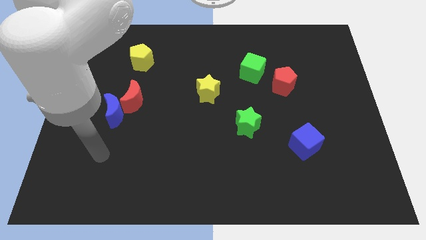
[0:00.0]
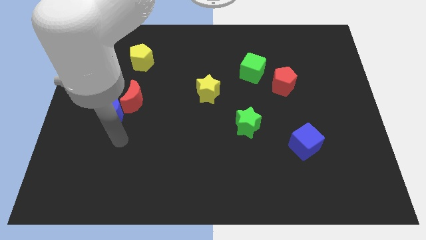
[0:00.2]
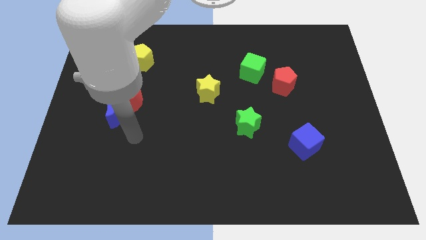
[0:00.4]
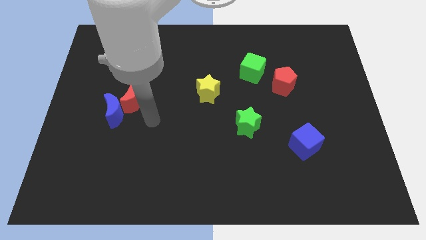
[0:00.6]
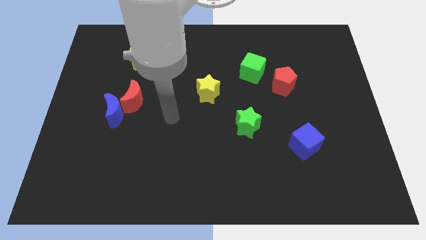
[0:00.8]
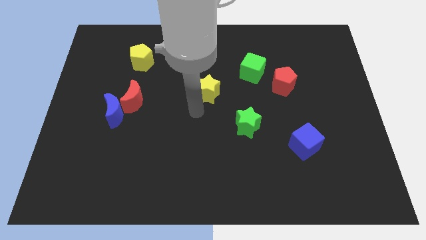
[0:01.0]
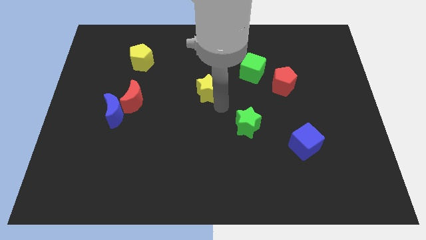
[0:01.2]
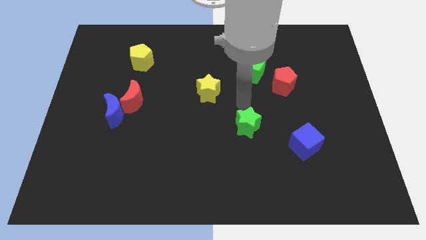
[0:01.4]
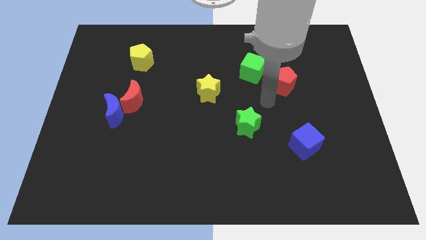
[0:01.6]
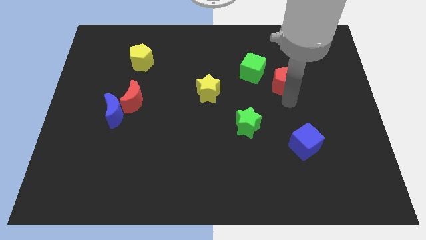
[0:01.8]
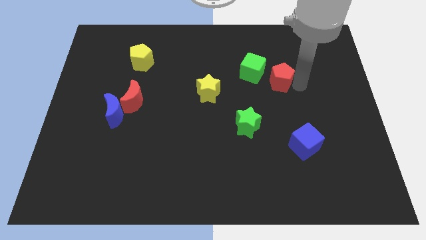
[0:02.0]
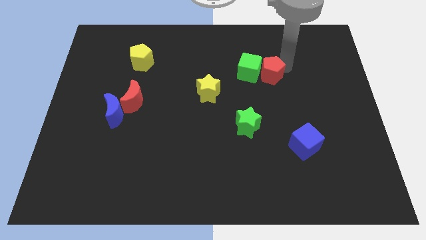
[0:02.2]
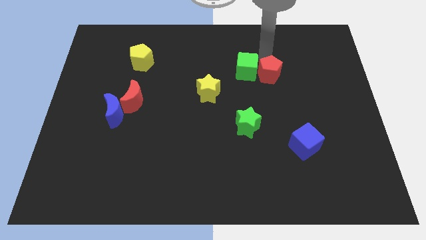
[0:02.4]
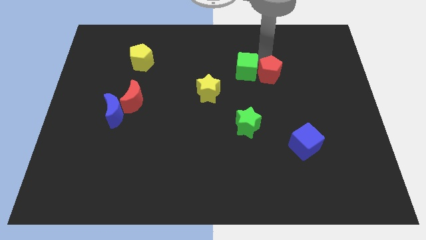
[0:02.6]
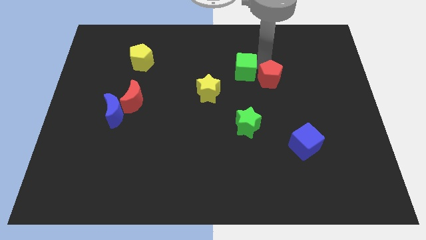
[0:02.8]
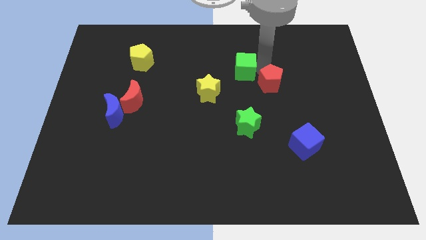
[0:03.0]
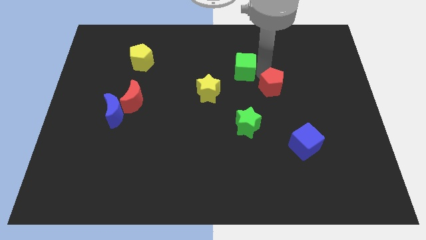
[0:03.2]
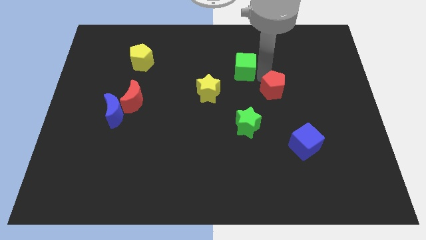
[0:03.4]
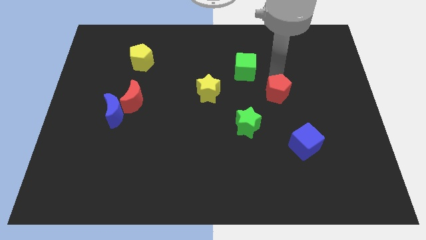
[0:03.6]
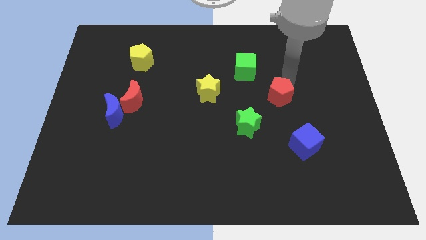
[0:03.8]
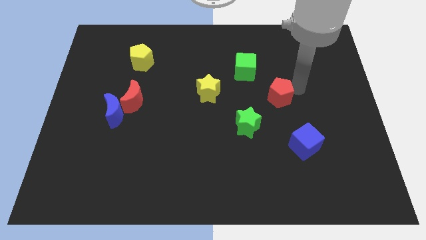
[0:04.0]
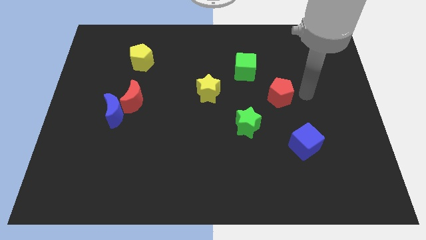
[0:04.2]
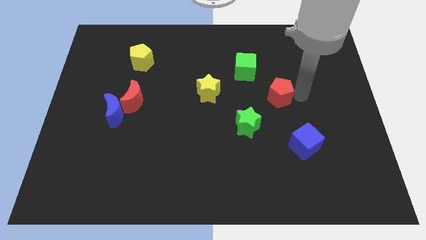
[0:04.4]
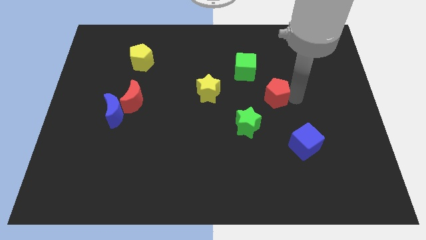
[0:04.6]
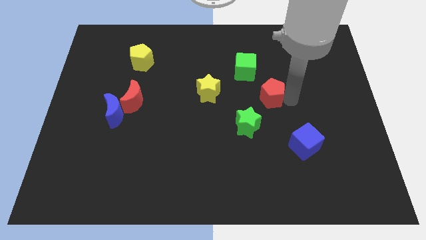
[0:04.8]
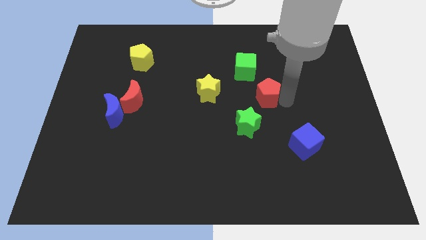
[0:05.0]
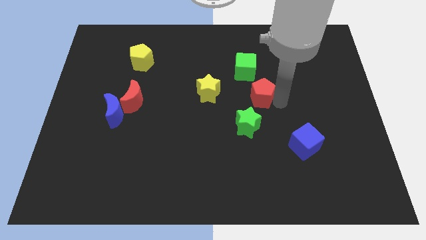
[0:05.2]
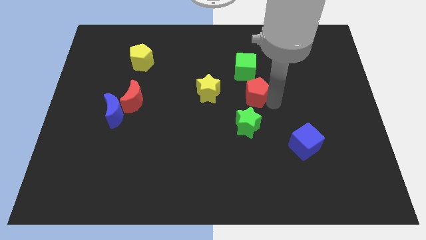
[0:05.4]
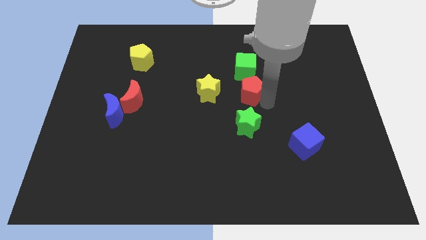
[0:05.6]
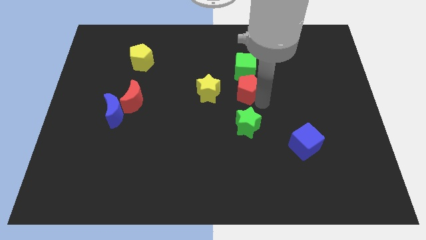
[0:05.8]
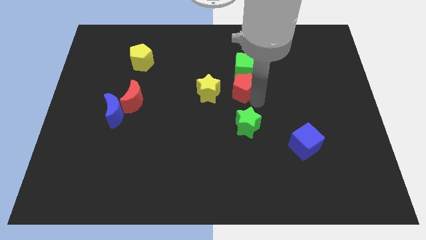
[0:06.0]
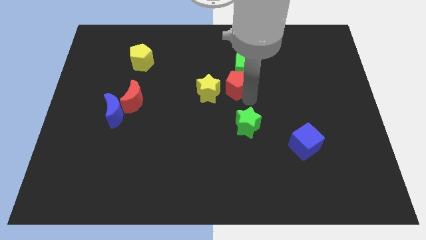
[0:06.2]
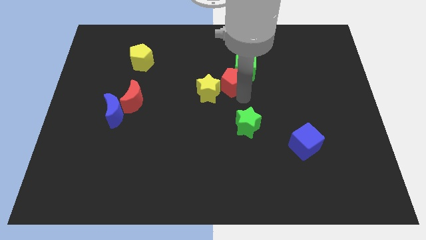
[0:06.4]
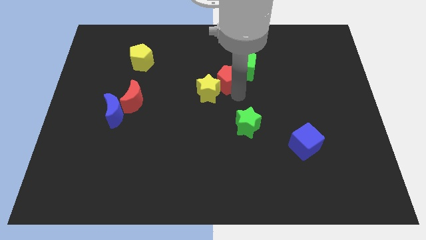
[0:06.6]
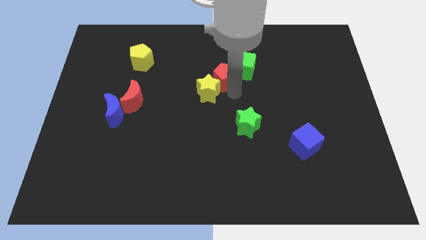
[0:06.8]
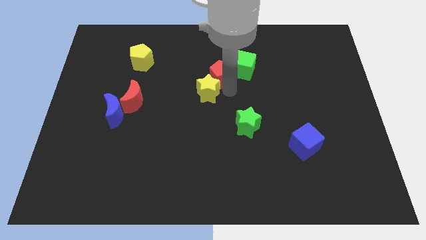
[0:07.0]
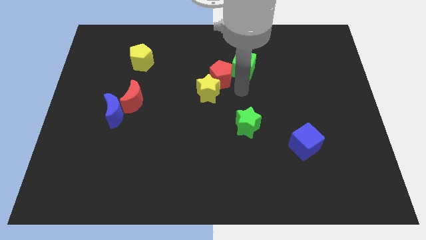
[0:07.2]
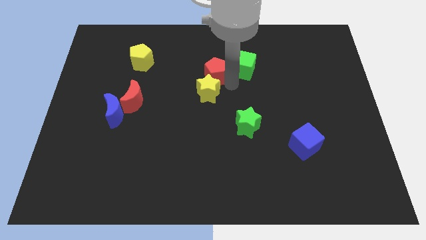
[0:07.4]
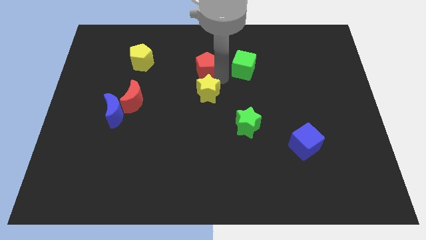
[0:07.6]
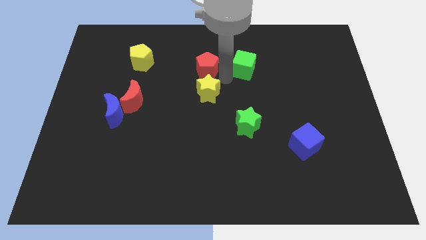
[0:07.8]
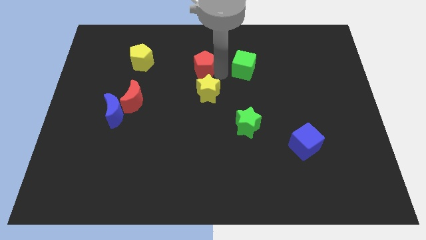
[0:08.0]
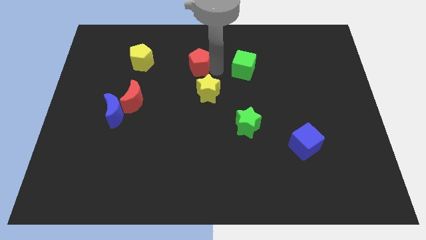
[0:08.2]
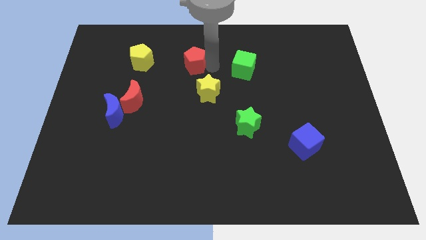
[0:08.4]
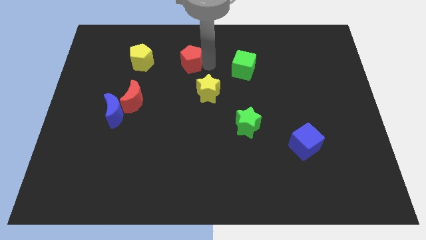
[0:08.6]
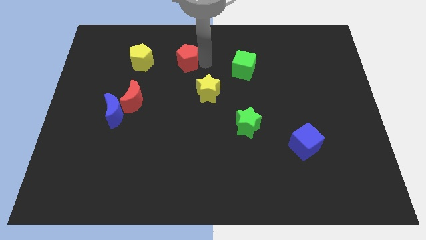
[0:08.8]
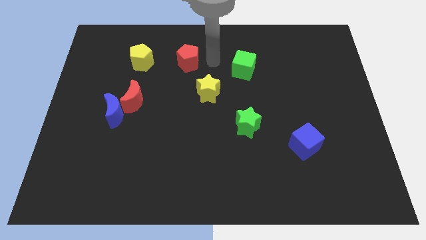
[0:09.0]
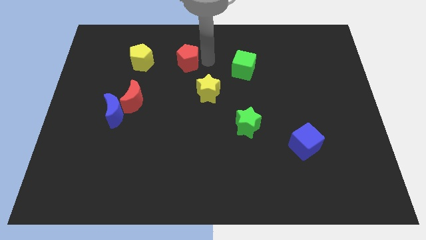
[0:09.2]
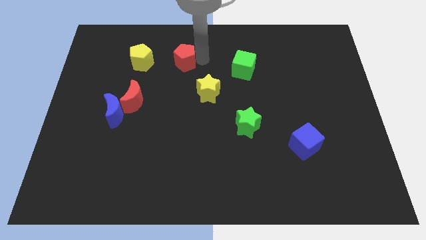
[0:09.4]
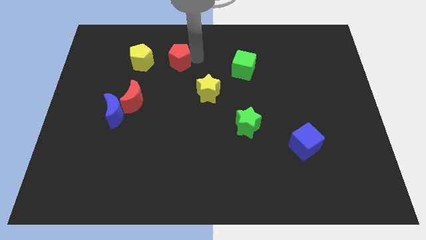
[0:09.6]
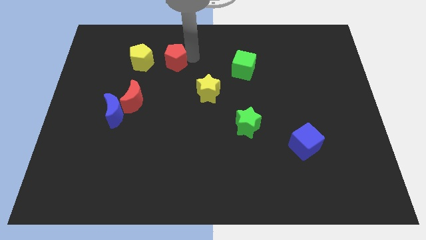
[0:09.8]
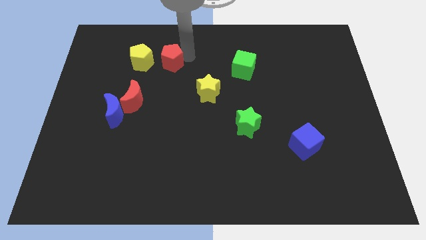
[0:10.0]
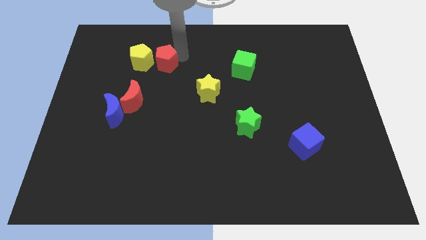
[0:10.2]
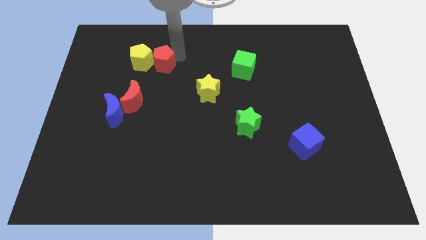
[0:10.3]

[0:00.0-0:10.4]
move the red pentagon towards the yellow pentagon

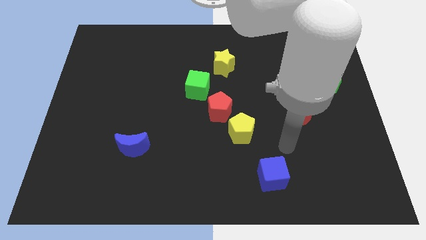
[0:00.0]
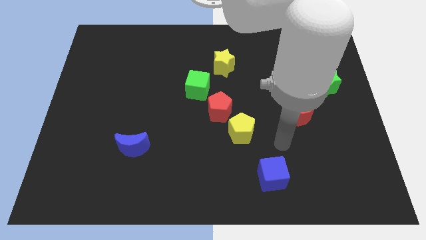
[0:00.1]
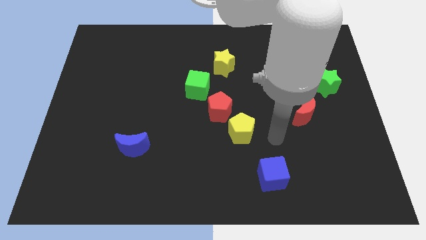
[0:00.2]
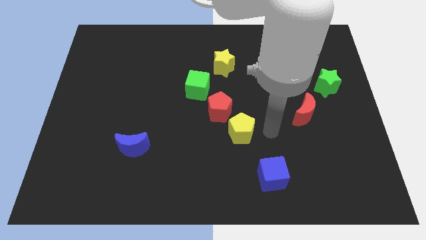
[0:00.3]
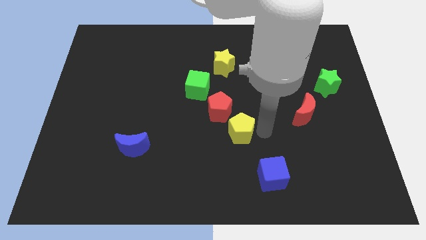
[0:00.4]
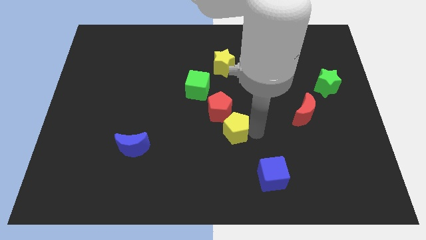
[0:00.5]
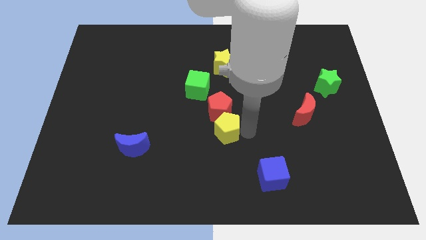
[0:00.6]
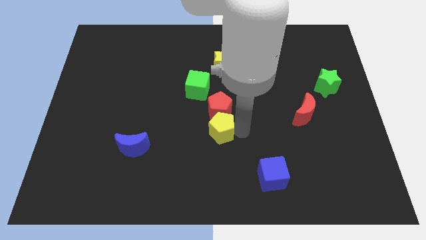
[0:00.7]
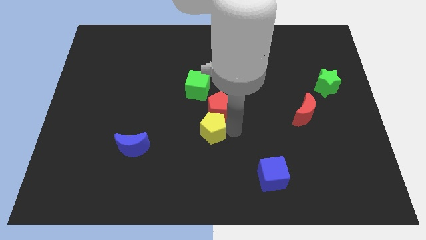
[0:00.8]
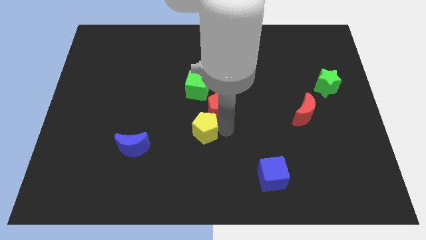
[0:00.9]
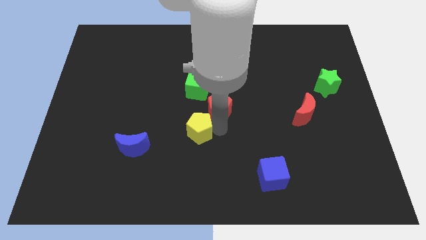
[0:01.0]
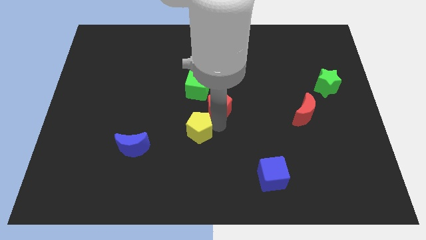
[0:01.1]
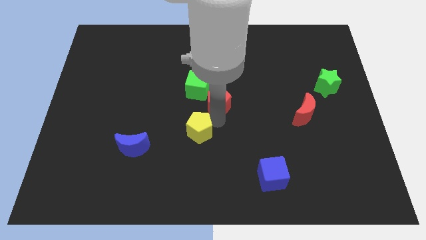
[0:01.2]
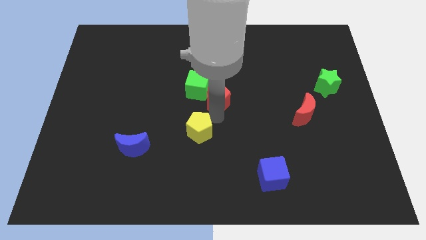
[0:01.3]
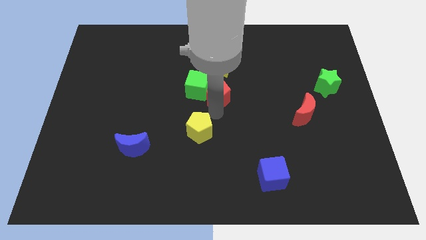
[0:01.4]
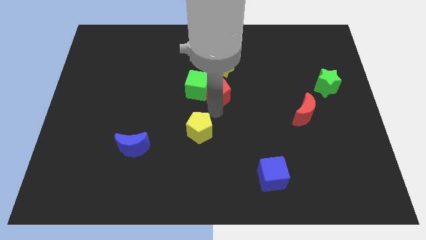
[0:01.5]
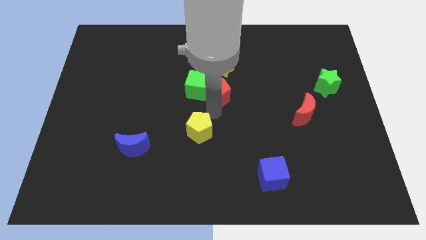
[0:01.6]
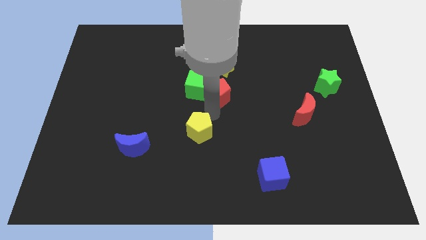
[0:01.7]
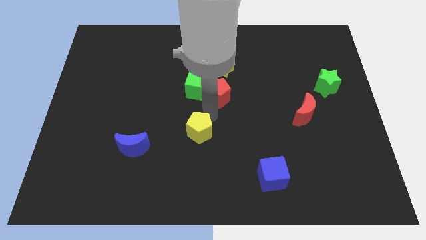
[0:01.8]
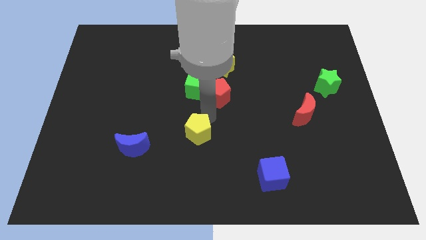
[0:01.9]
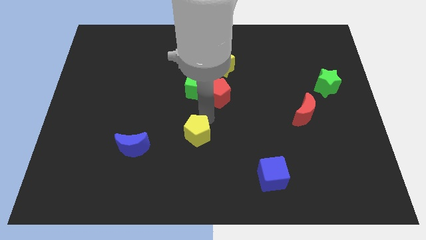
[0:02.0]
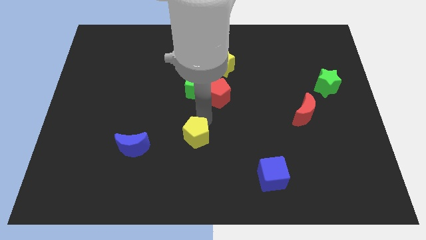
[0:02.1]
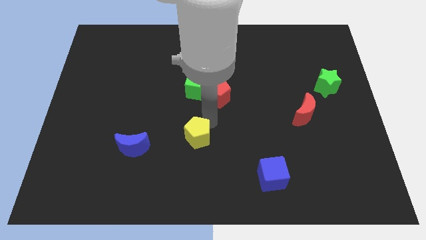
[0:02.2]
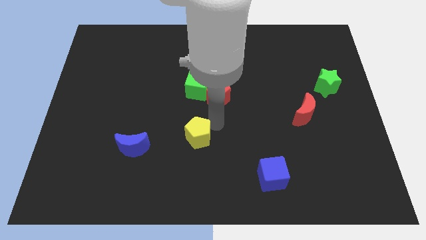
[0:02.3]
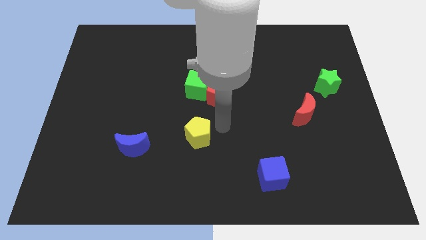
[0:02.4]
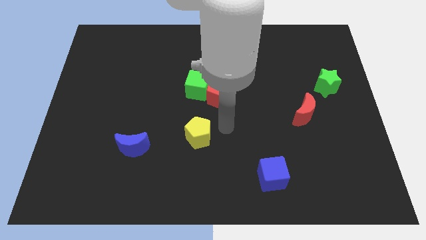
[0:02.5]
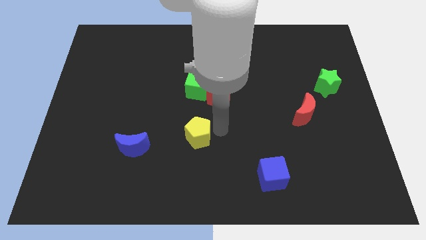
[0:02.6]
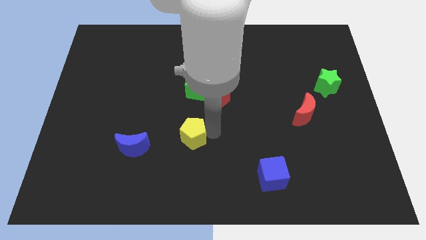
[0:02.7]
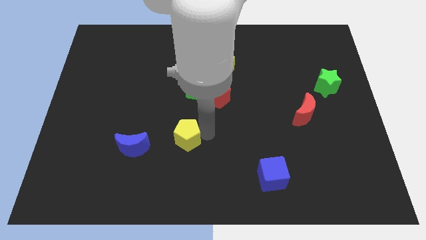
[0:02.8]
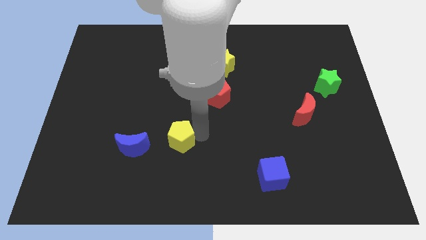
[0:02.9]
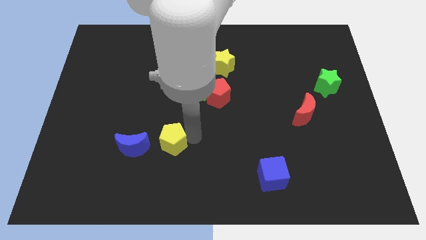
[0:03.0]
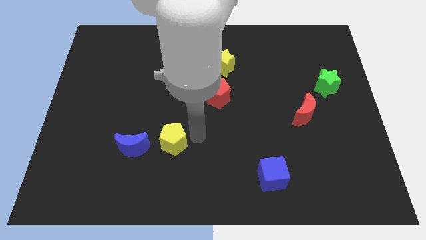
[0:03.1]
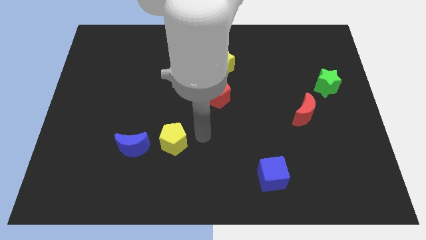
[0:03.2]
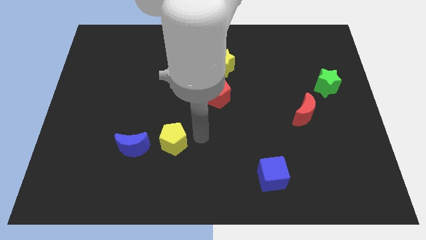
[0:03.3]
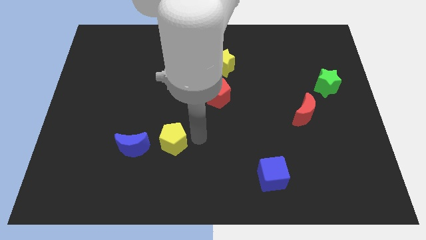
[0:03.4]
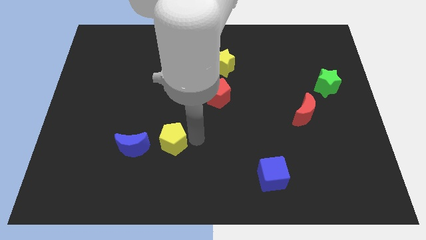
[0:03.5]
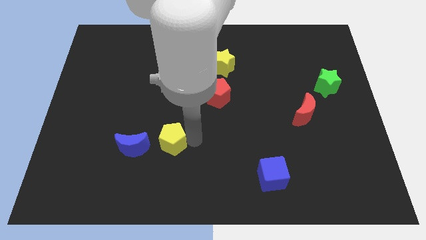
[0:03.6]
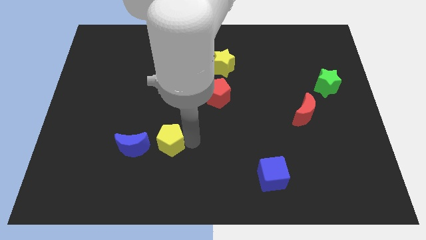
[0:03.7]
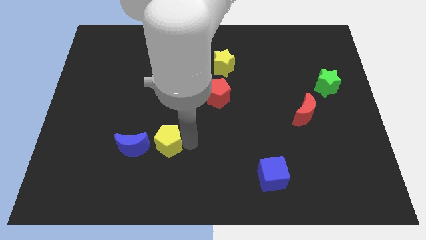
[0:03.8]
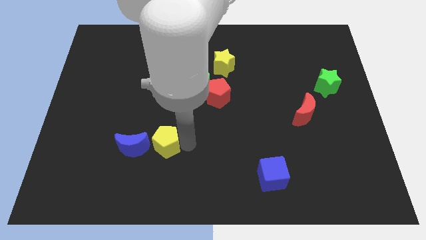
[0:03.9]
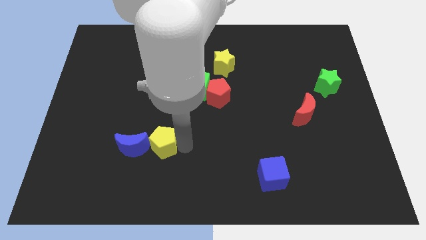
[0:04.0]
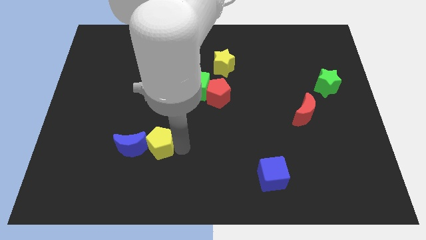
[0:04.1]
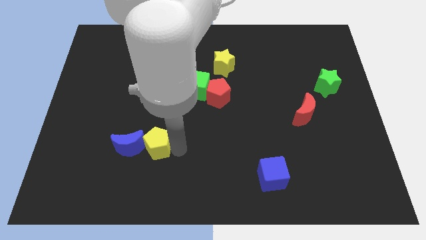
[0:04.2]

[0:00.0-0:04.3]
slide the yellow pentagon next to the blue moon
